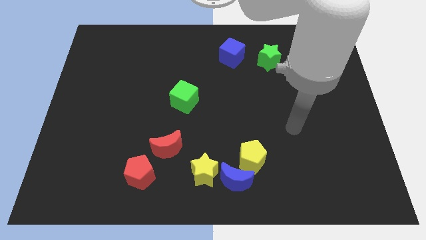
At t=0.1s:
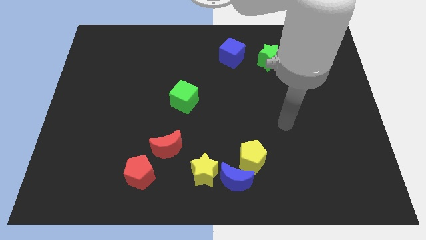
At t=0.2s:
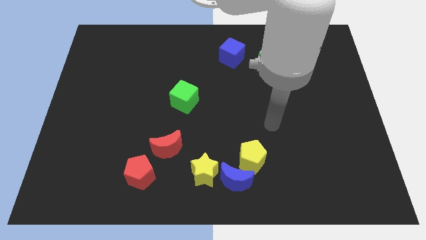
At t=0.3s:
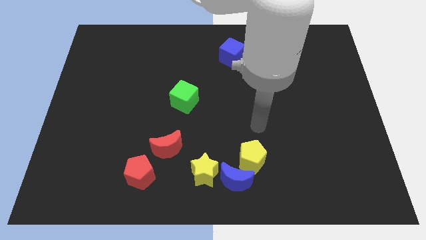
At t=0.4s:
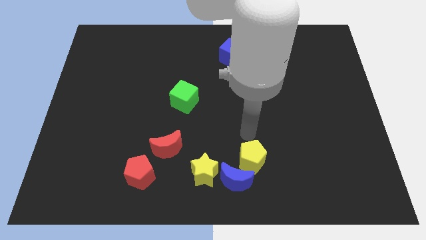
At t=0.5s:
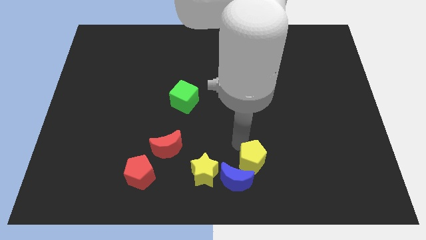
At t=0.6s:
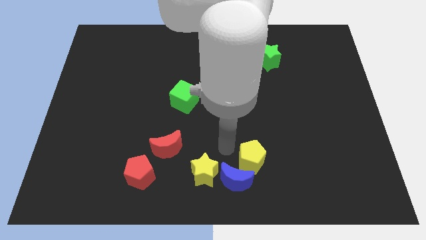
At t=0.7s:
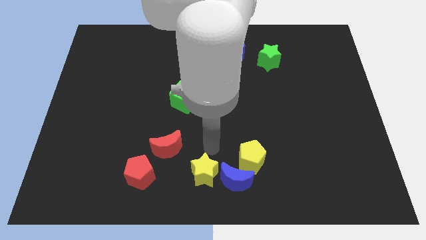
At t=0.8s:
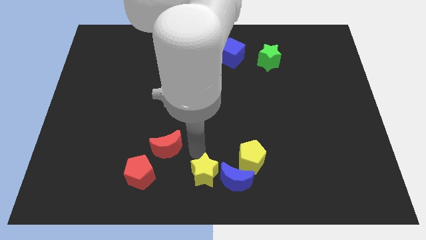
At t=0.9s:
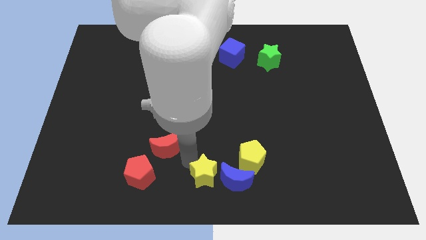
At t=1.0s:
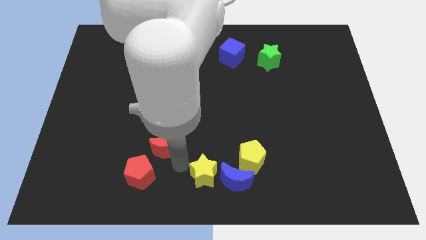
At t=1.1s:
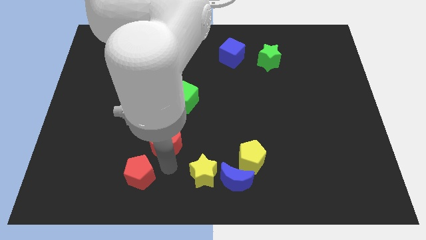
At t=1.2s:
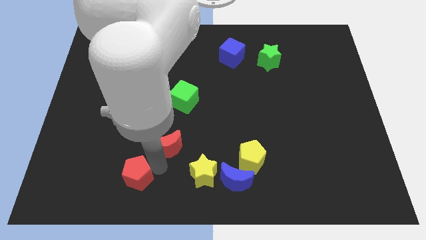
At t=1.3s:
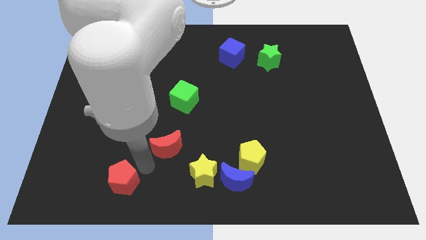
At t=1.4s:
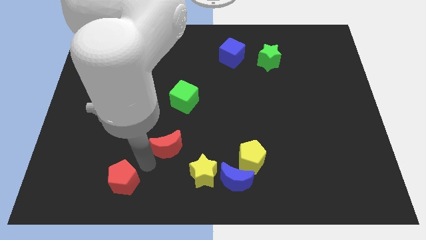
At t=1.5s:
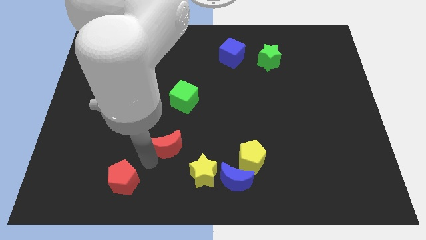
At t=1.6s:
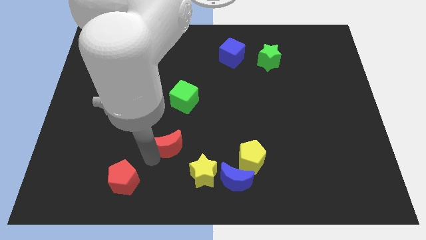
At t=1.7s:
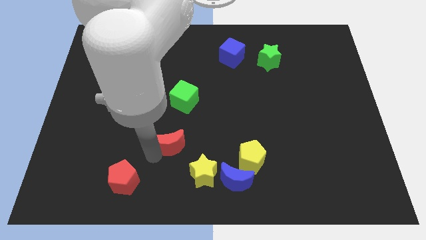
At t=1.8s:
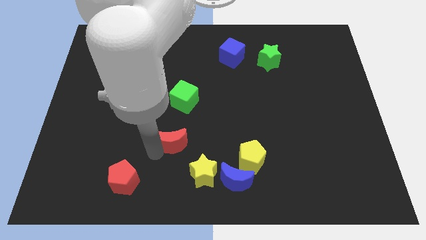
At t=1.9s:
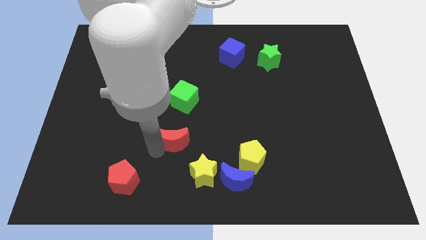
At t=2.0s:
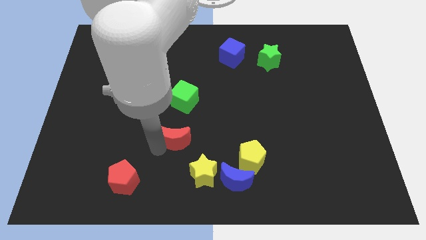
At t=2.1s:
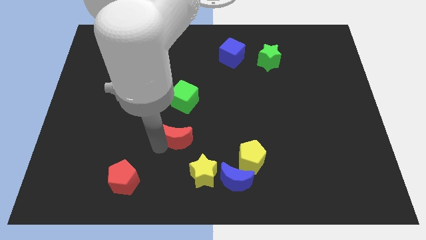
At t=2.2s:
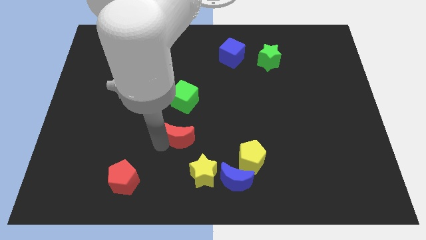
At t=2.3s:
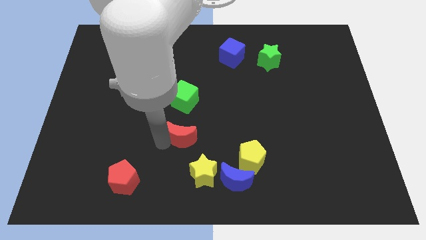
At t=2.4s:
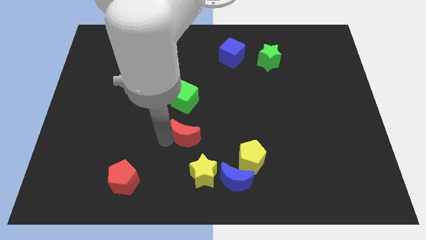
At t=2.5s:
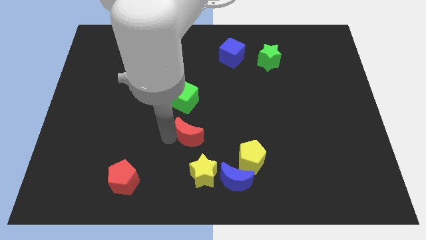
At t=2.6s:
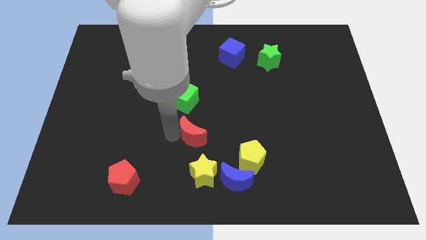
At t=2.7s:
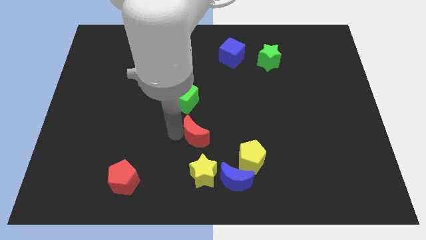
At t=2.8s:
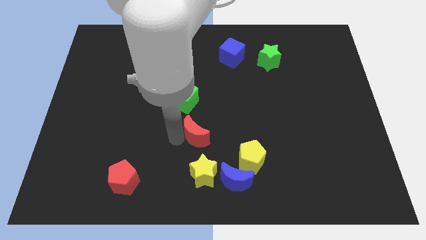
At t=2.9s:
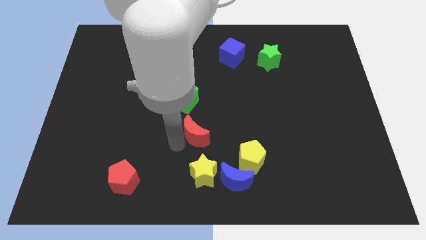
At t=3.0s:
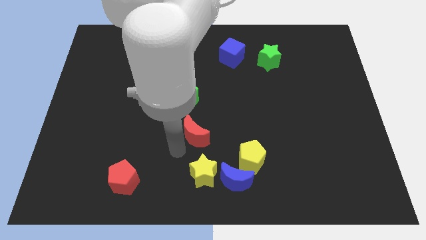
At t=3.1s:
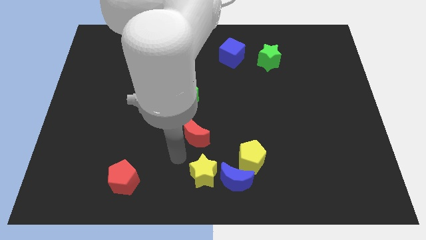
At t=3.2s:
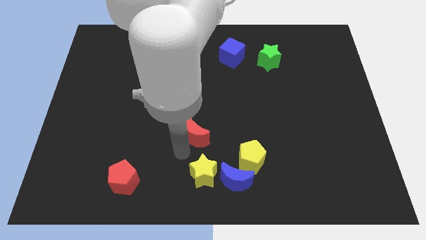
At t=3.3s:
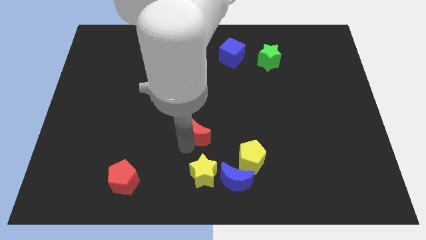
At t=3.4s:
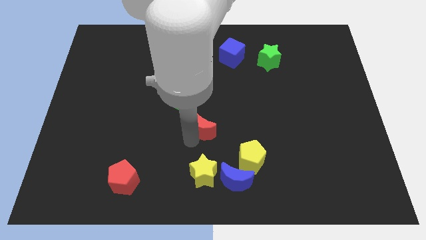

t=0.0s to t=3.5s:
slide the red moon up and right diagonally somewhat

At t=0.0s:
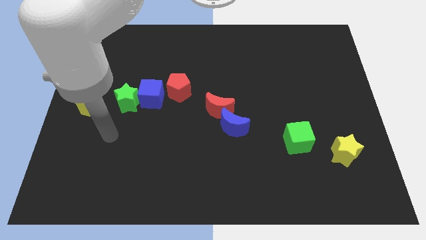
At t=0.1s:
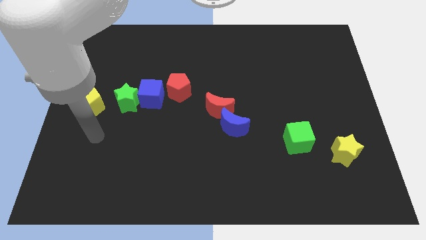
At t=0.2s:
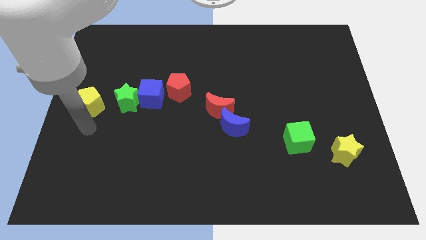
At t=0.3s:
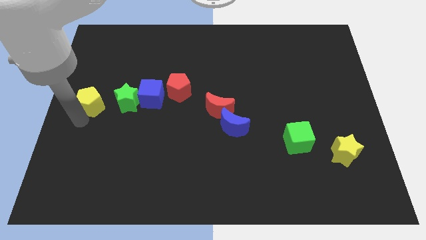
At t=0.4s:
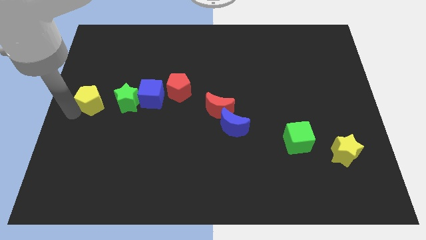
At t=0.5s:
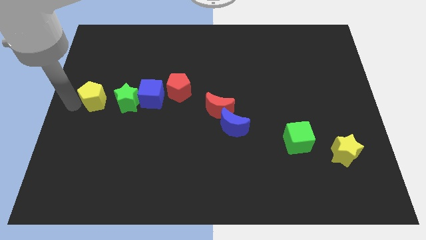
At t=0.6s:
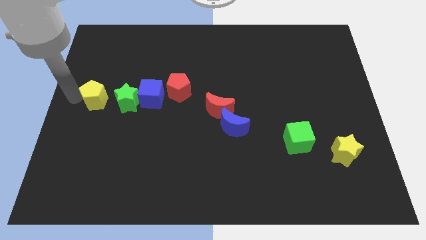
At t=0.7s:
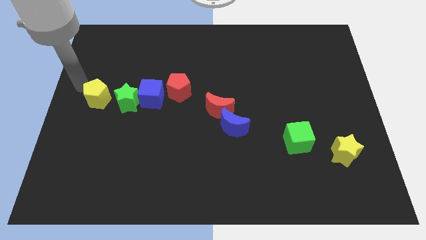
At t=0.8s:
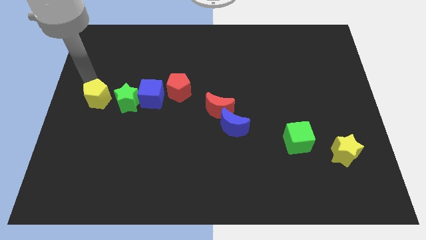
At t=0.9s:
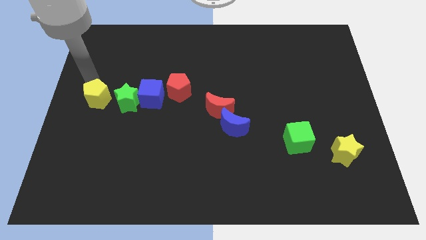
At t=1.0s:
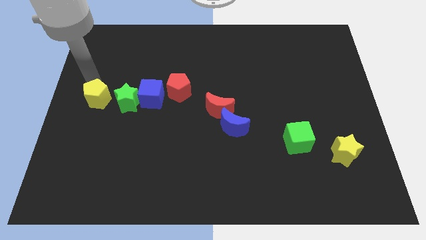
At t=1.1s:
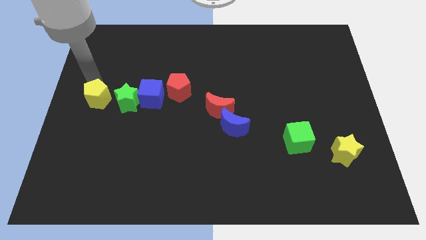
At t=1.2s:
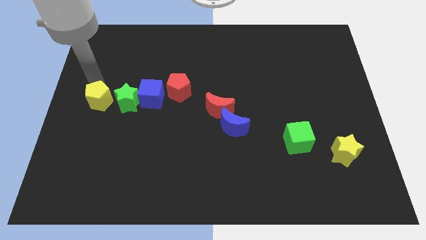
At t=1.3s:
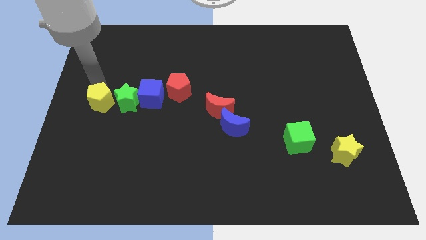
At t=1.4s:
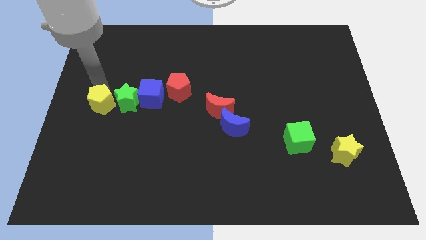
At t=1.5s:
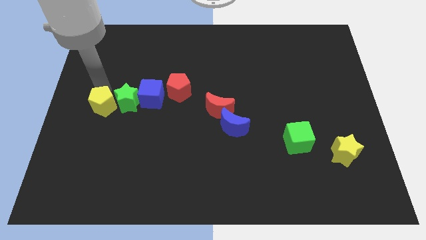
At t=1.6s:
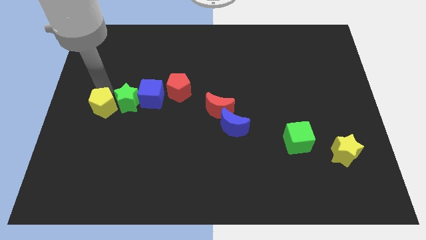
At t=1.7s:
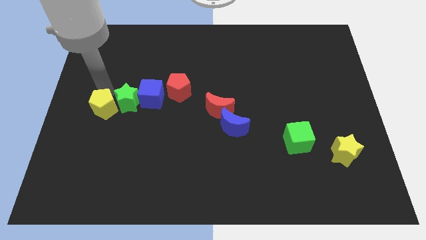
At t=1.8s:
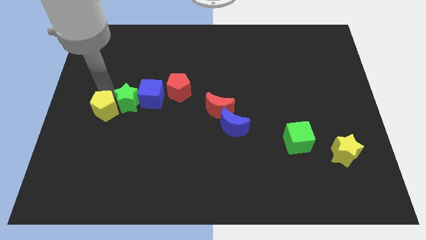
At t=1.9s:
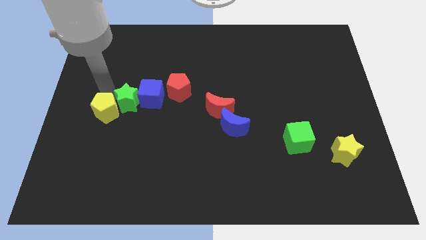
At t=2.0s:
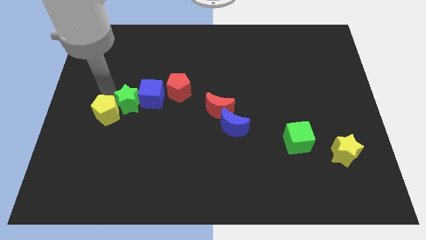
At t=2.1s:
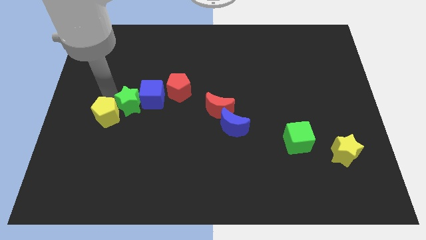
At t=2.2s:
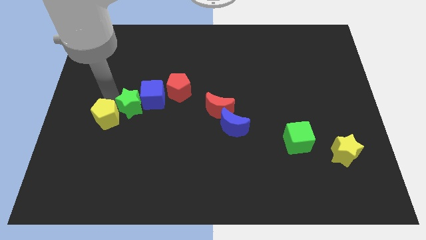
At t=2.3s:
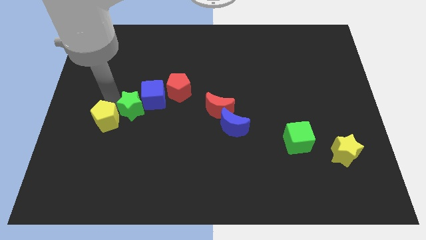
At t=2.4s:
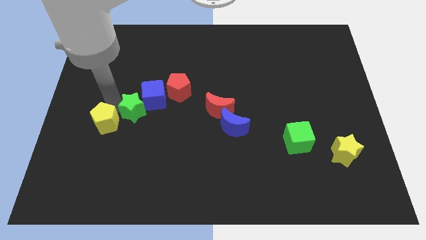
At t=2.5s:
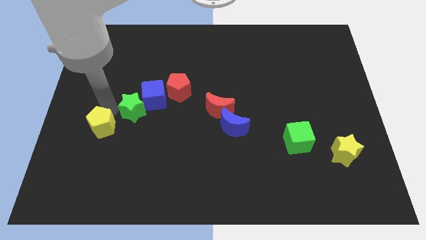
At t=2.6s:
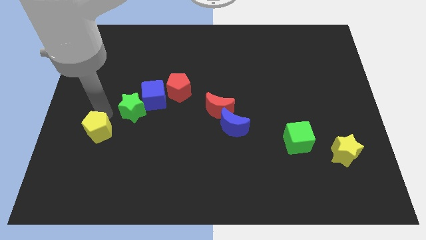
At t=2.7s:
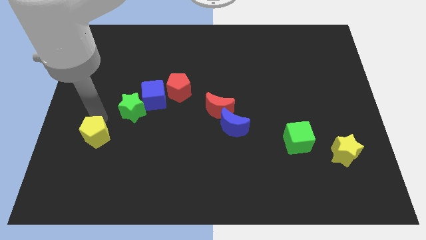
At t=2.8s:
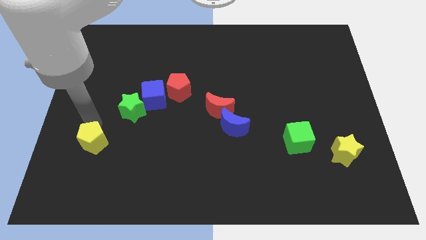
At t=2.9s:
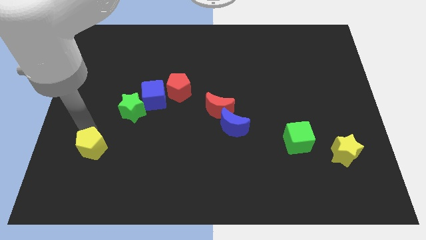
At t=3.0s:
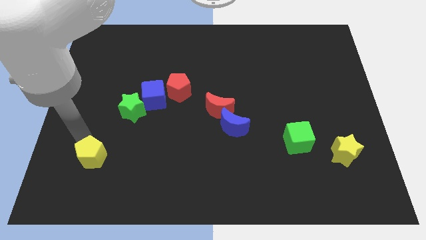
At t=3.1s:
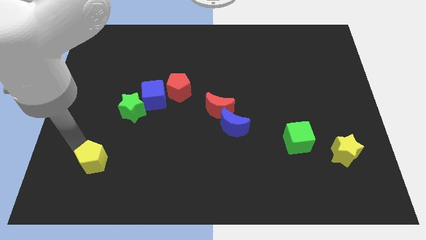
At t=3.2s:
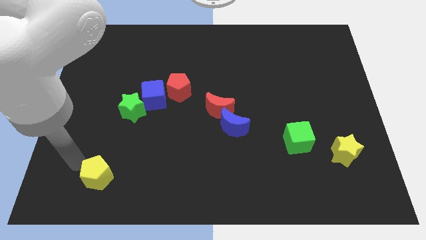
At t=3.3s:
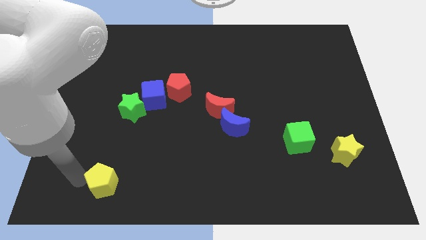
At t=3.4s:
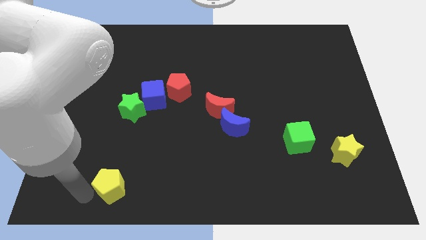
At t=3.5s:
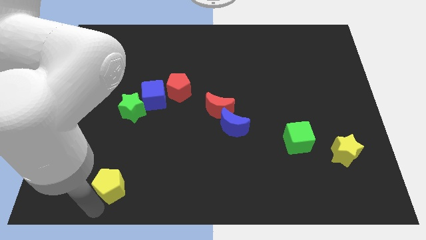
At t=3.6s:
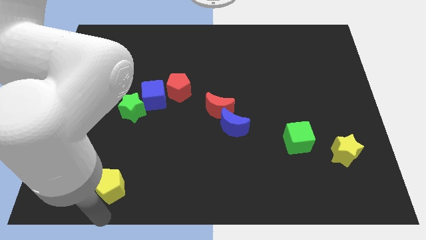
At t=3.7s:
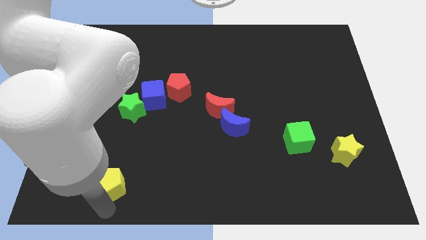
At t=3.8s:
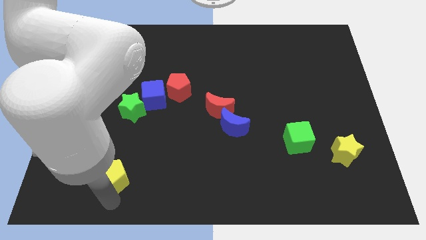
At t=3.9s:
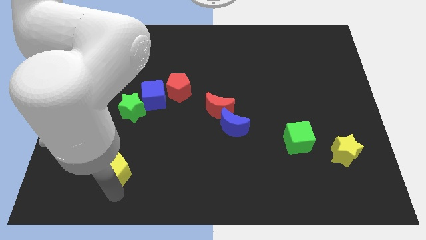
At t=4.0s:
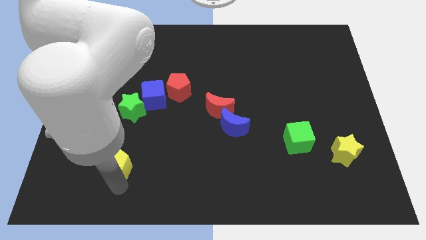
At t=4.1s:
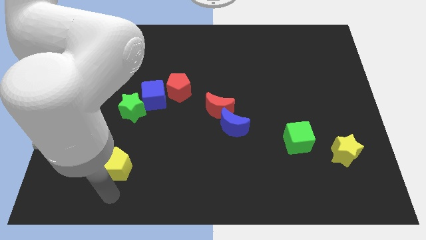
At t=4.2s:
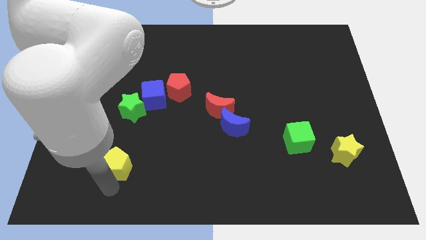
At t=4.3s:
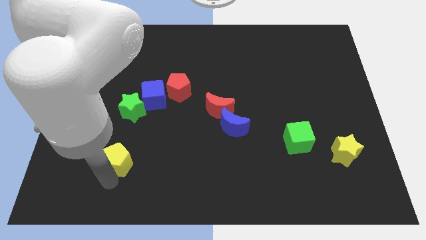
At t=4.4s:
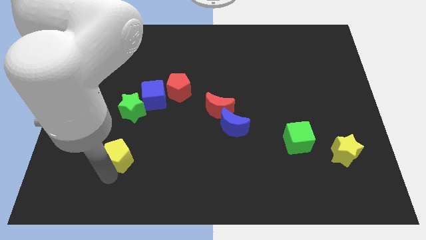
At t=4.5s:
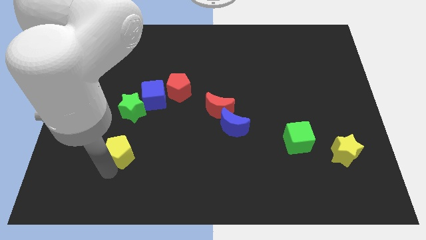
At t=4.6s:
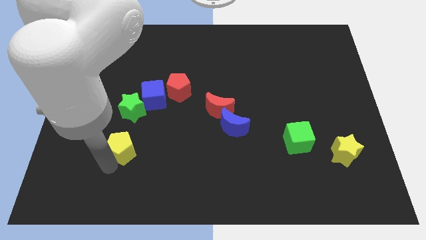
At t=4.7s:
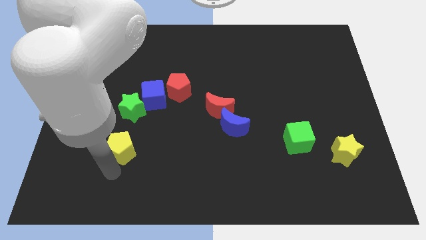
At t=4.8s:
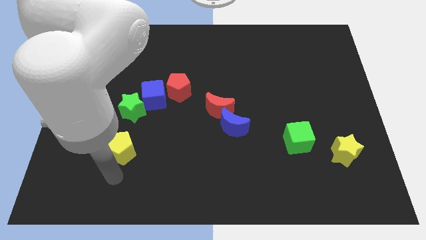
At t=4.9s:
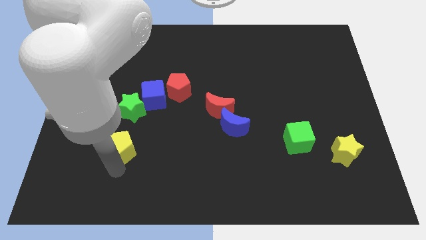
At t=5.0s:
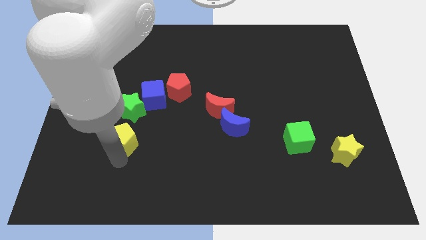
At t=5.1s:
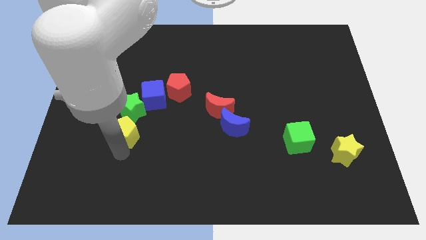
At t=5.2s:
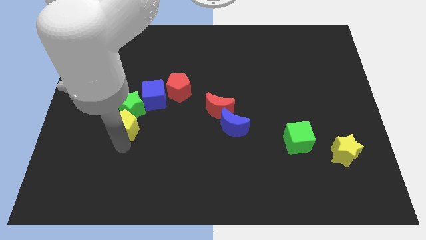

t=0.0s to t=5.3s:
slide the yellow pentagon right a little
